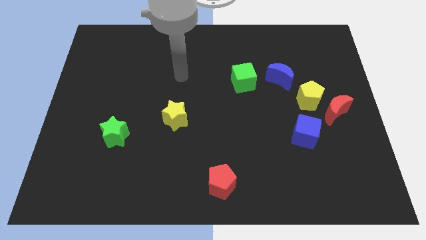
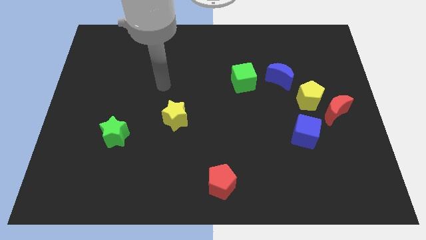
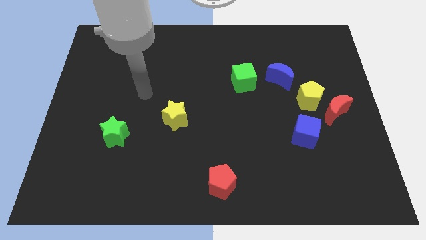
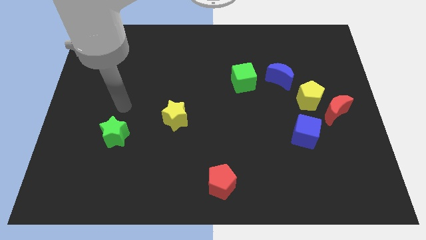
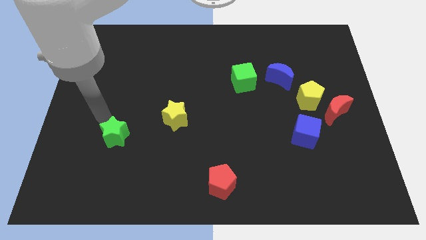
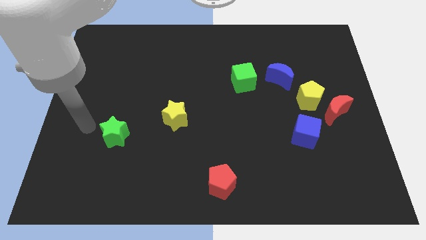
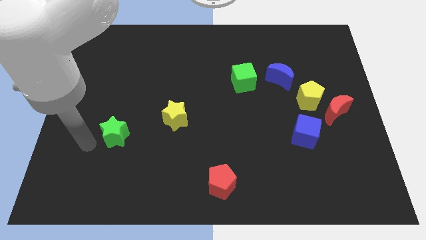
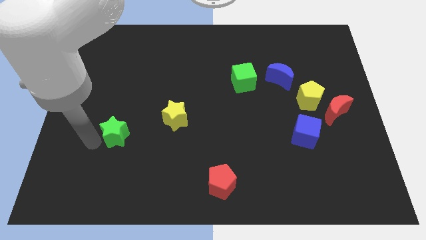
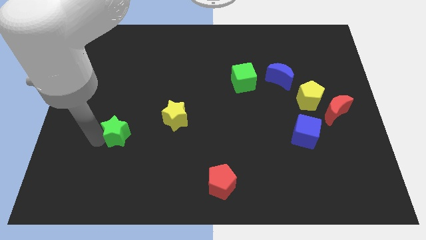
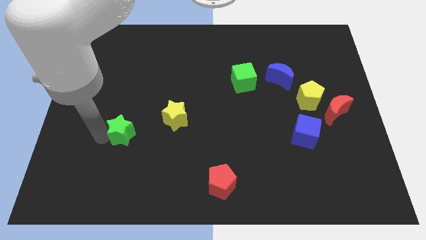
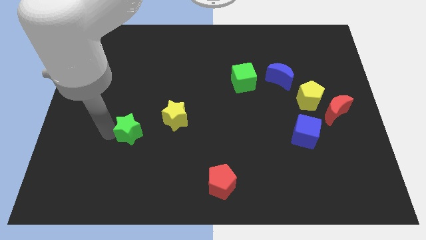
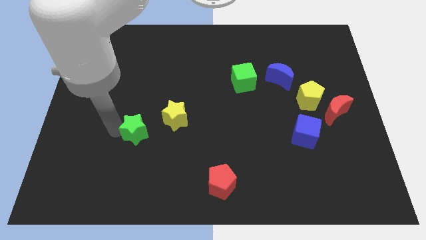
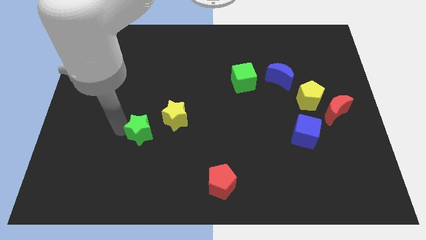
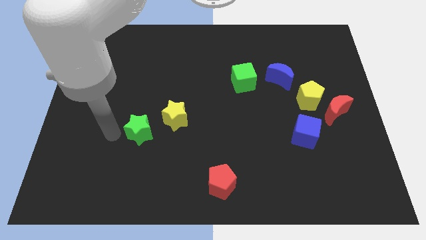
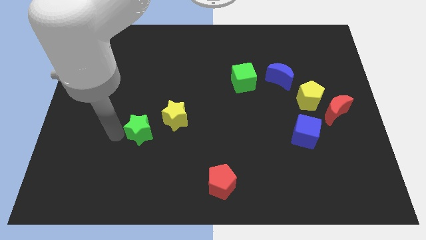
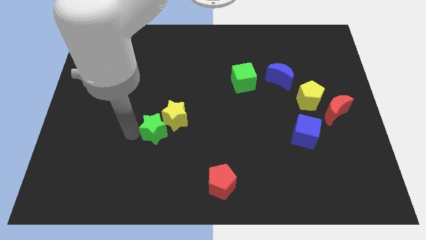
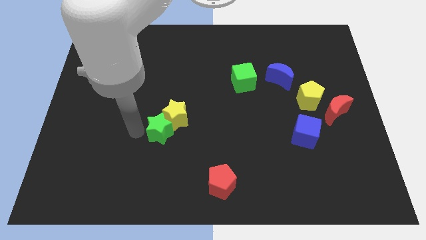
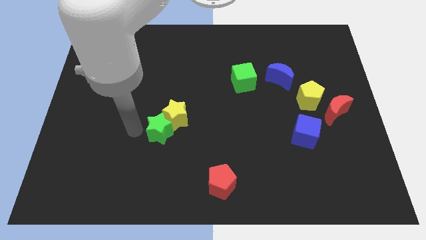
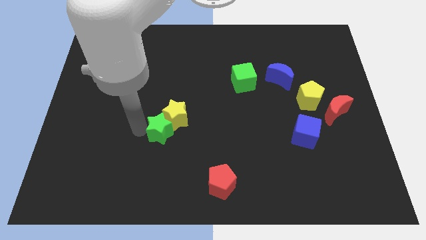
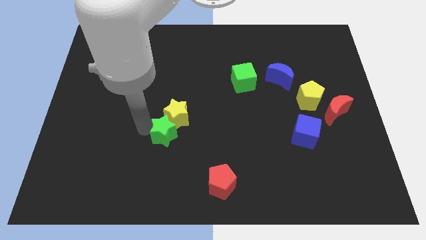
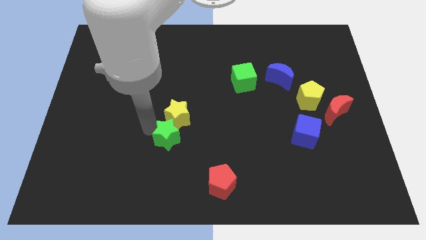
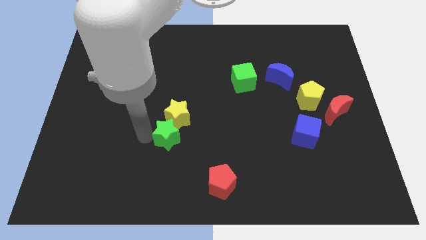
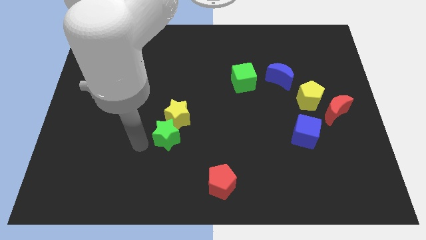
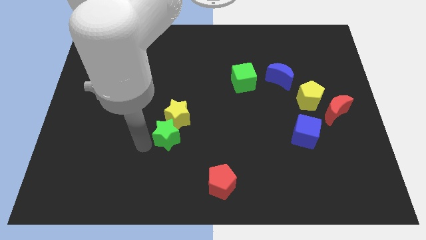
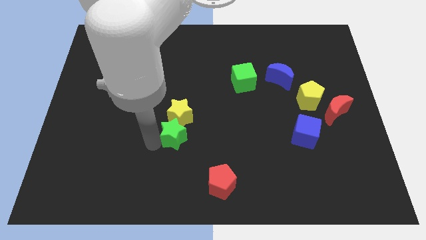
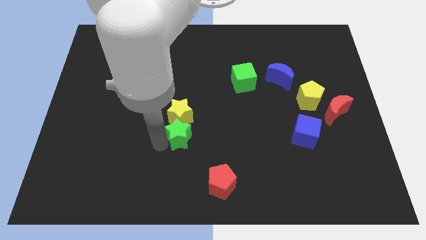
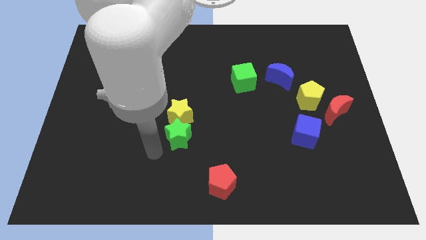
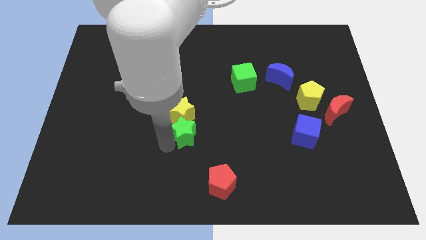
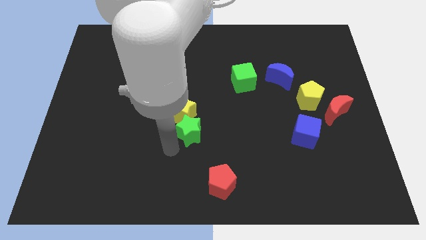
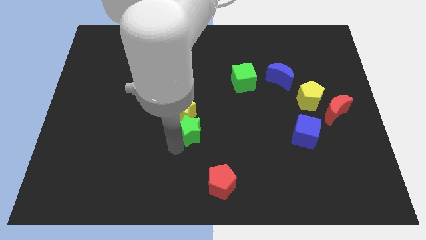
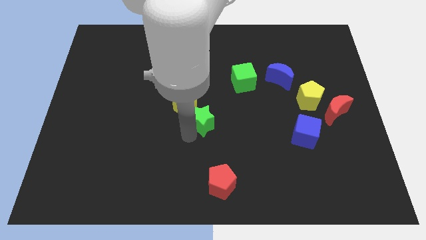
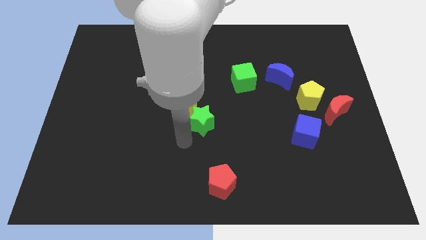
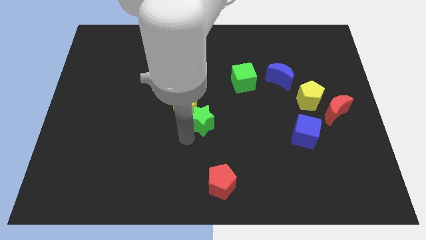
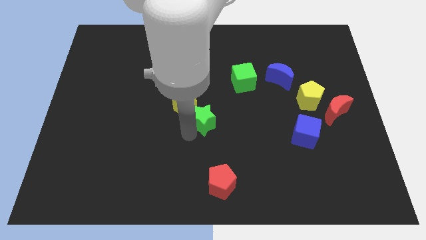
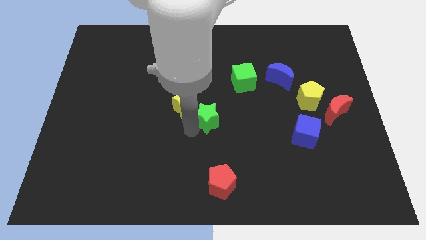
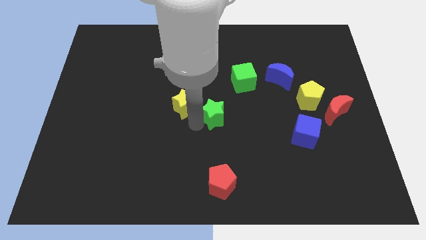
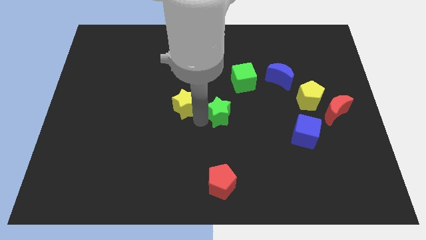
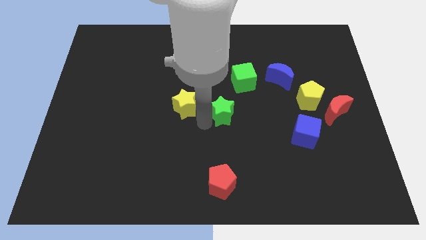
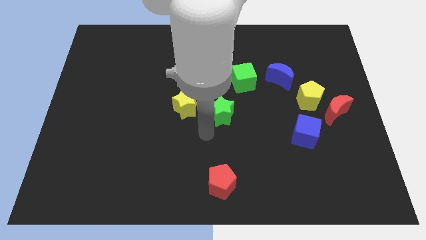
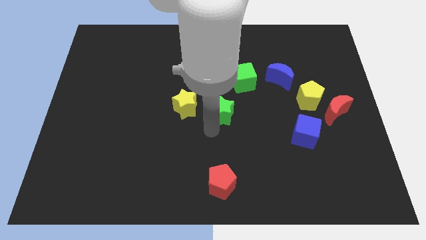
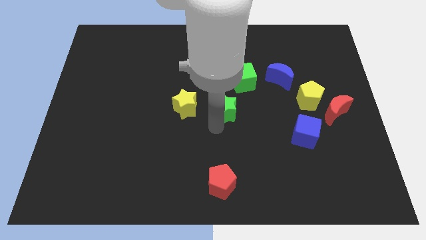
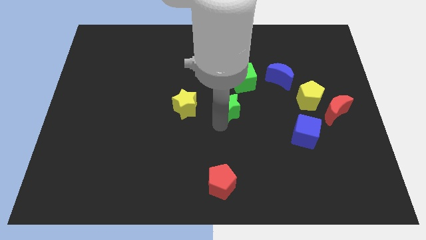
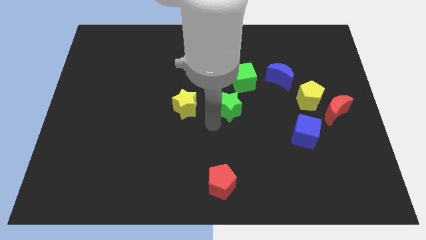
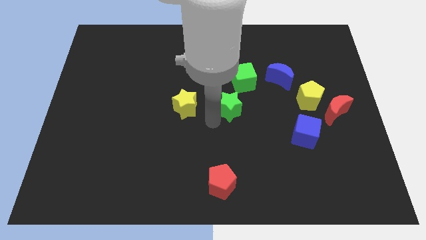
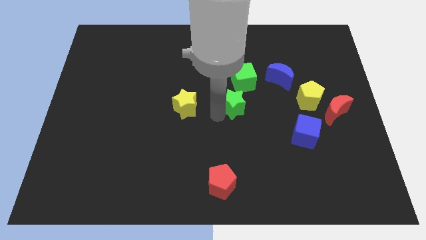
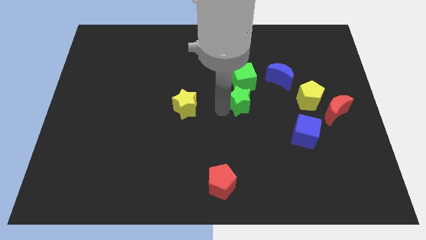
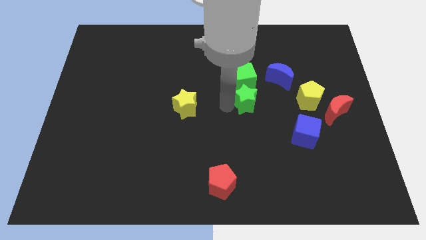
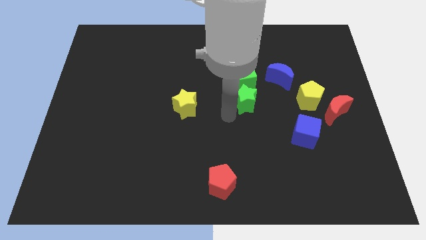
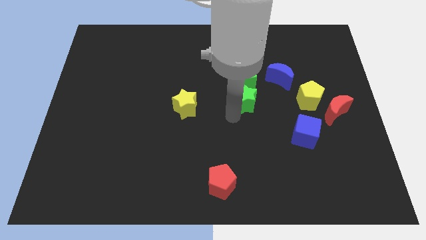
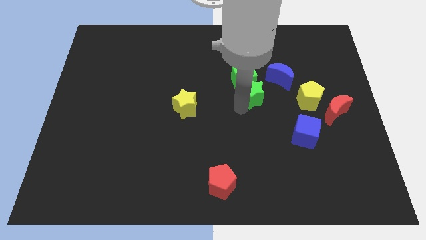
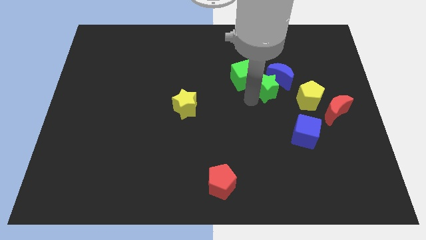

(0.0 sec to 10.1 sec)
move the green star towards the blue moon

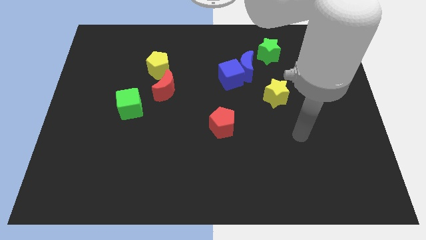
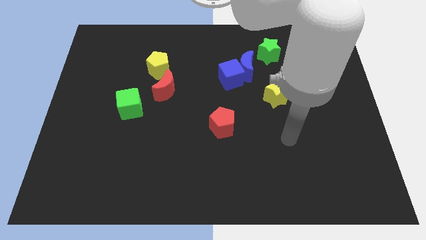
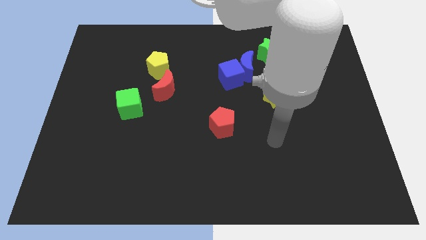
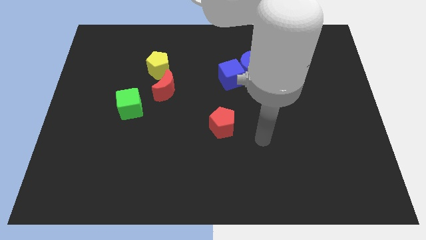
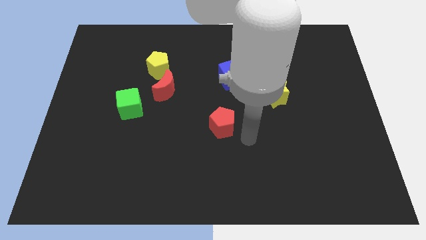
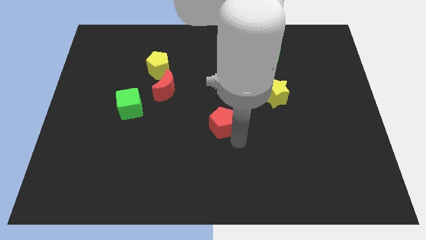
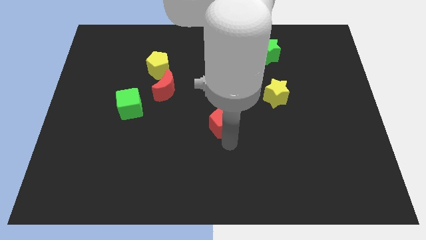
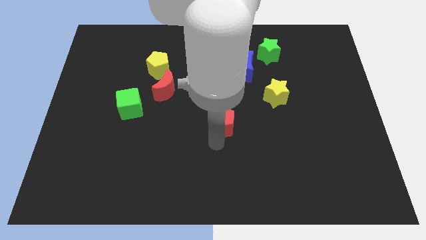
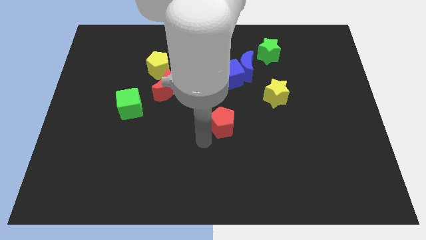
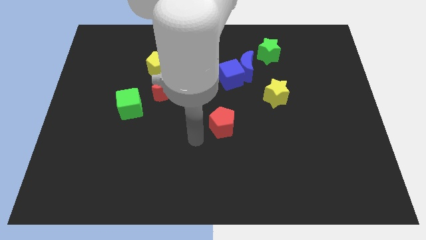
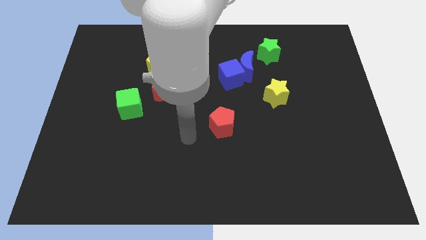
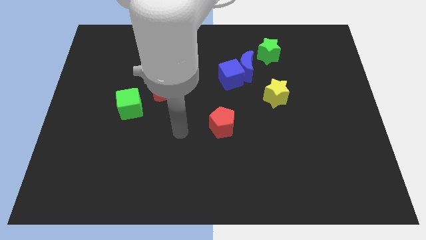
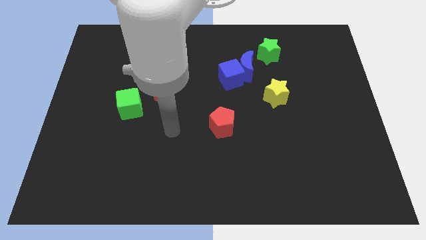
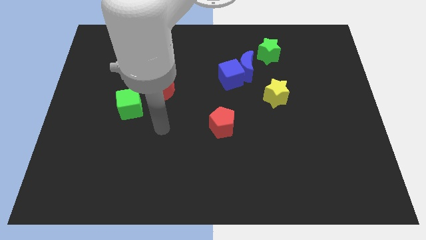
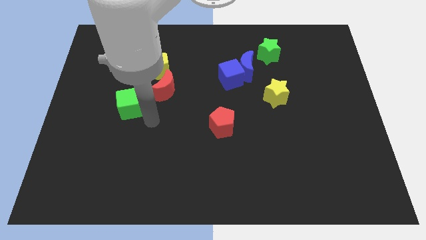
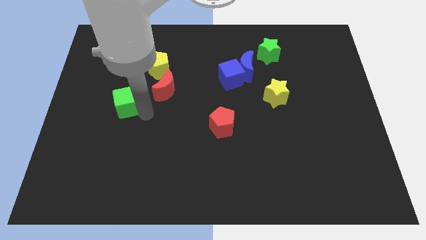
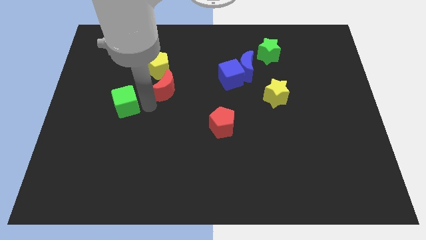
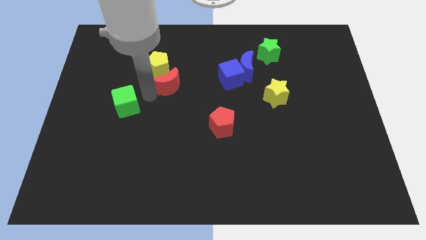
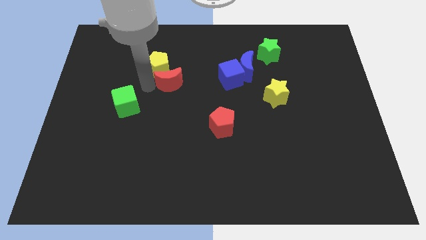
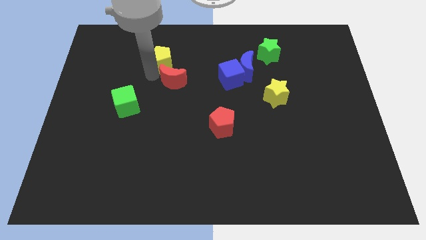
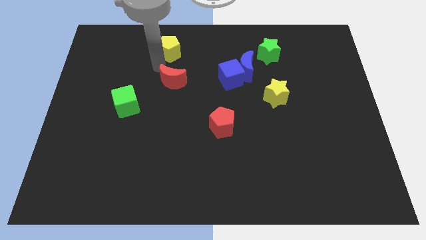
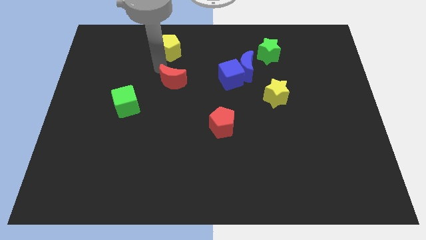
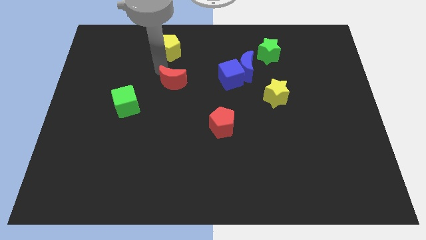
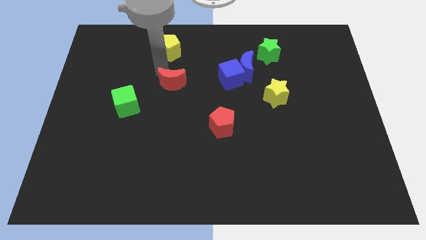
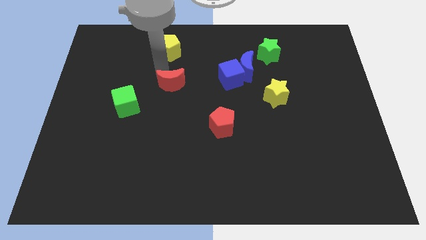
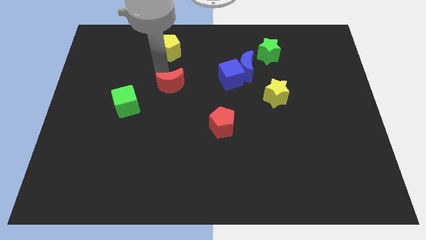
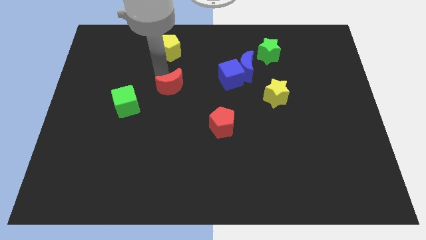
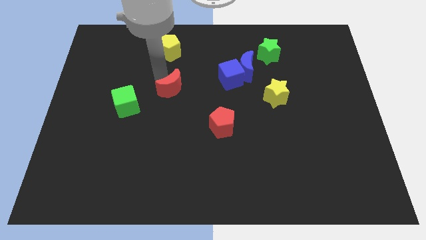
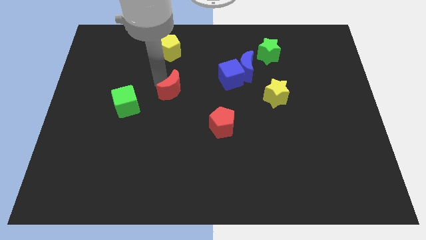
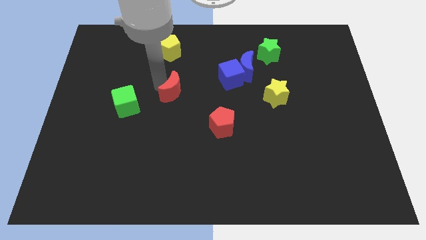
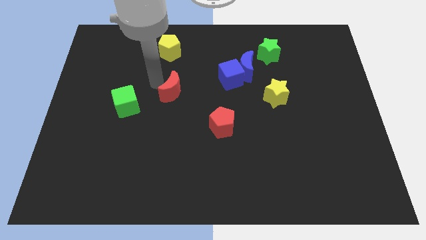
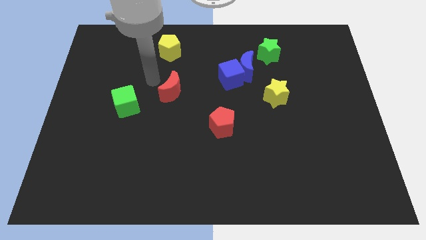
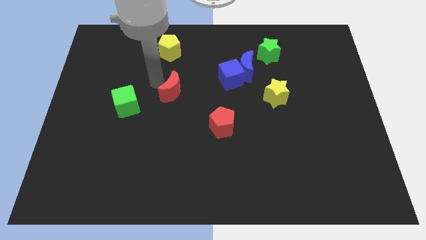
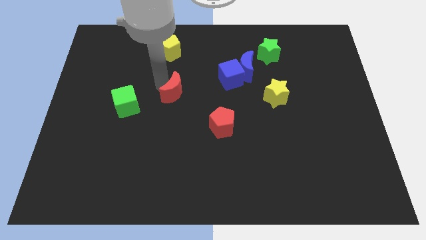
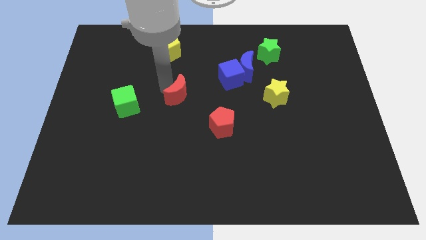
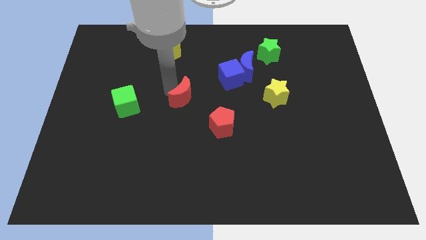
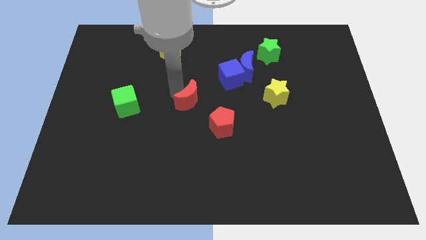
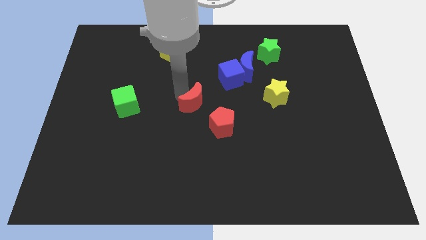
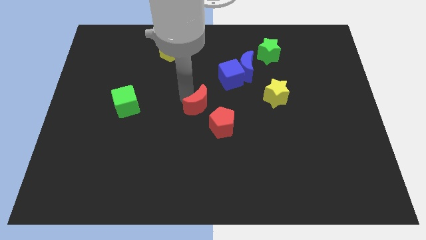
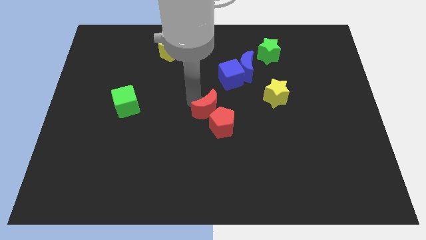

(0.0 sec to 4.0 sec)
put the red moon next to the red pentagon
